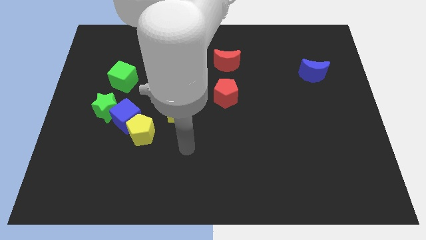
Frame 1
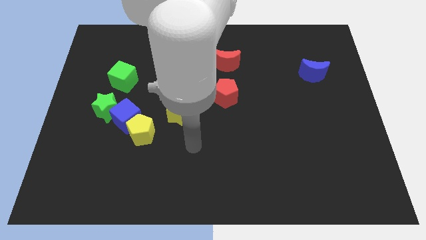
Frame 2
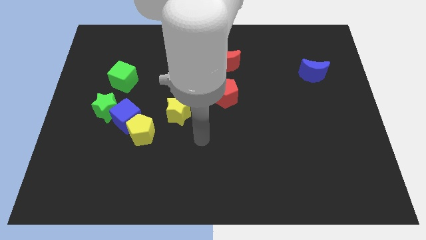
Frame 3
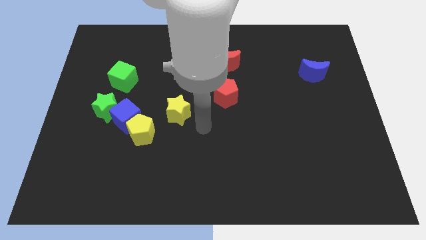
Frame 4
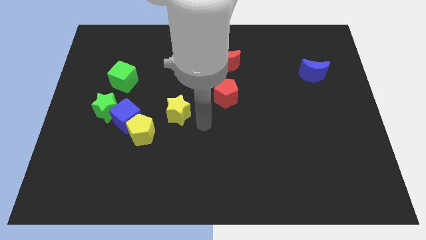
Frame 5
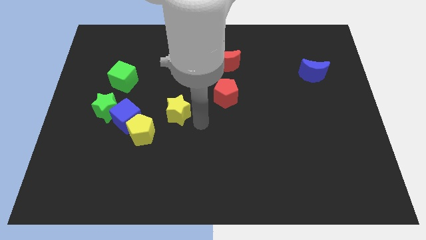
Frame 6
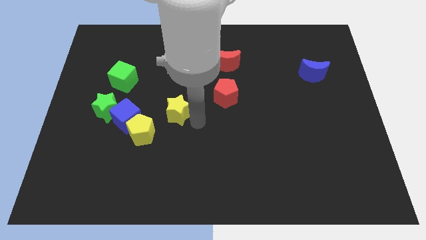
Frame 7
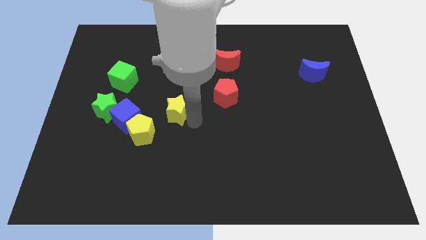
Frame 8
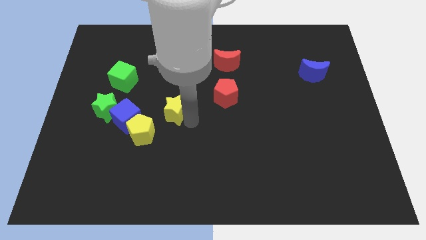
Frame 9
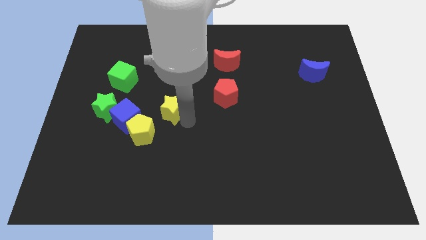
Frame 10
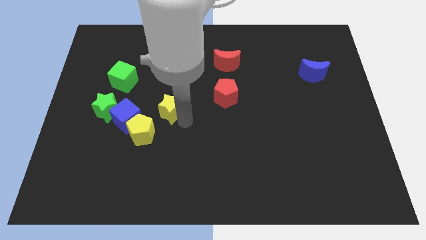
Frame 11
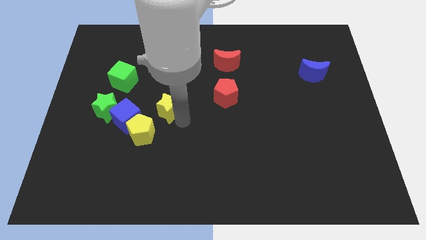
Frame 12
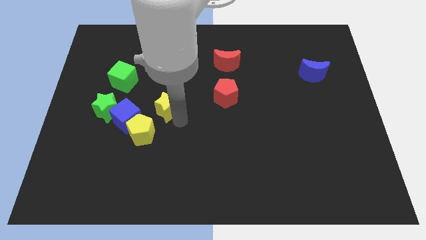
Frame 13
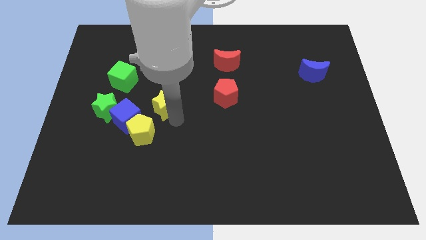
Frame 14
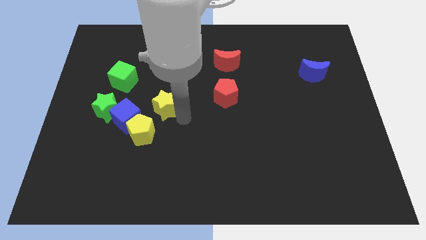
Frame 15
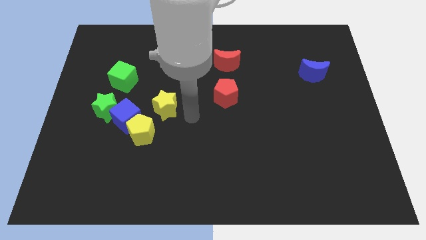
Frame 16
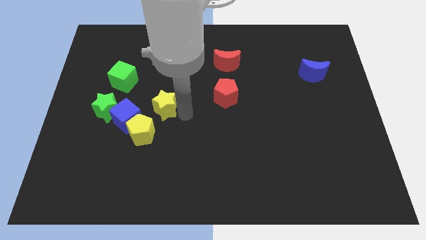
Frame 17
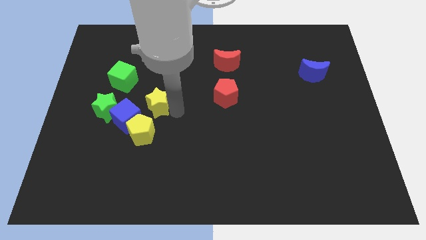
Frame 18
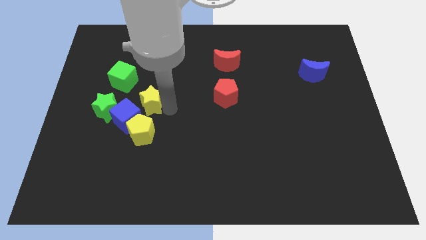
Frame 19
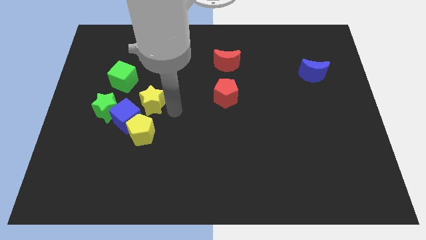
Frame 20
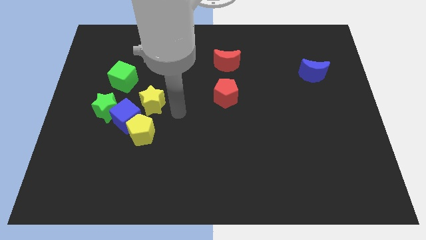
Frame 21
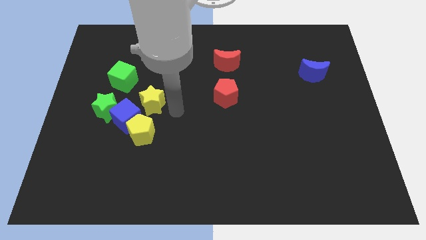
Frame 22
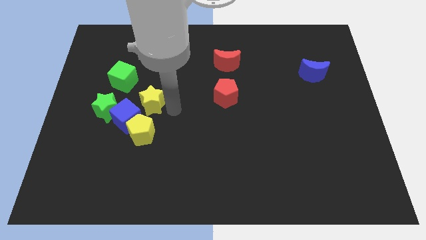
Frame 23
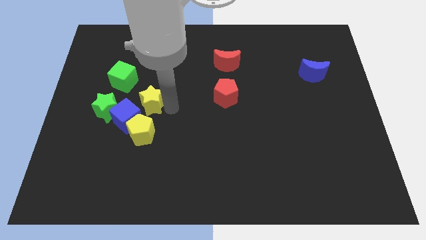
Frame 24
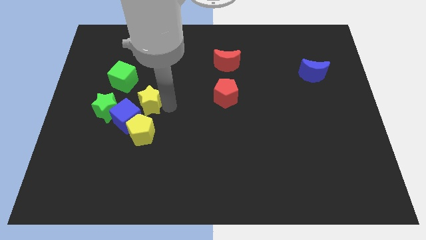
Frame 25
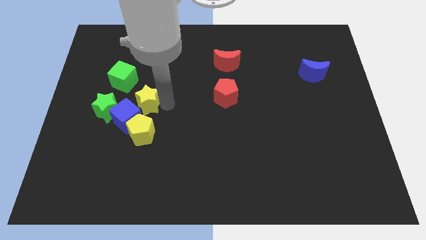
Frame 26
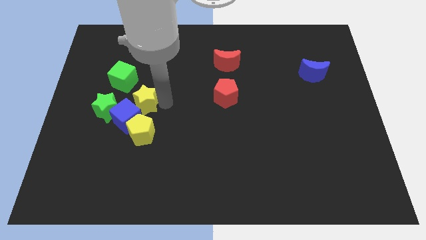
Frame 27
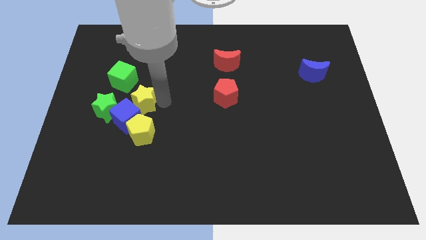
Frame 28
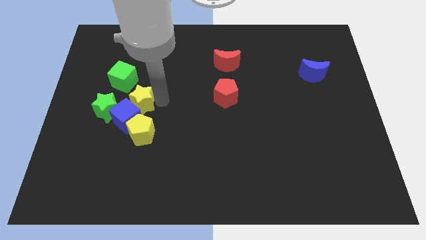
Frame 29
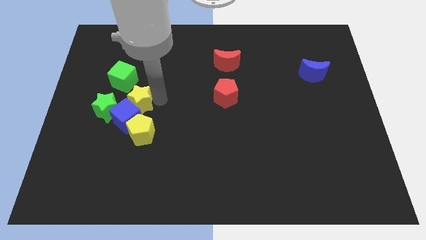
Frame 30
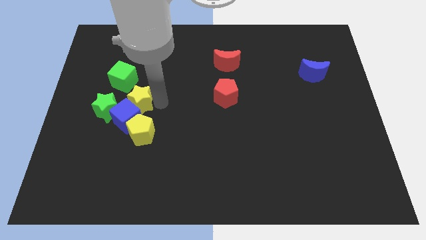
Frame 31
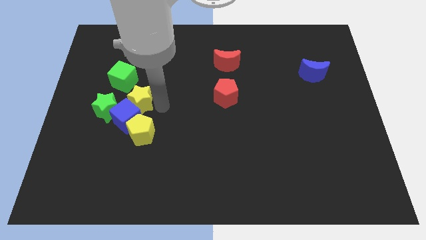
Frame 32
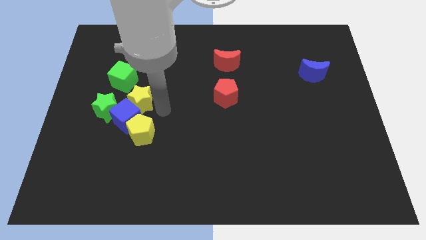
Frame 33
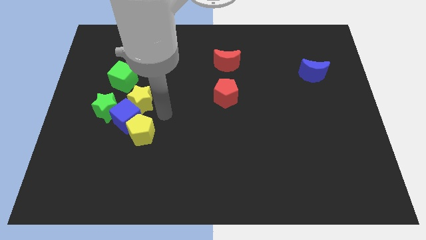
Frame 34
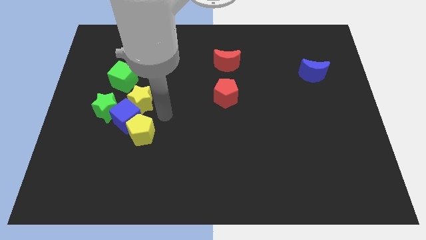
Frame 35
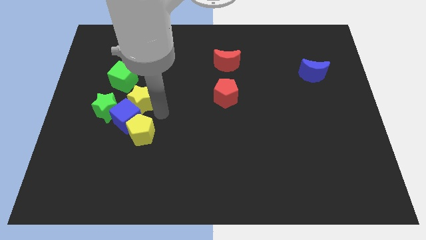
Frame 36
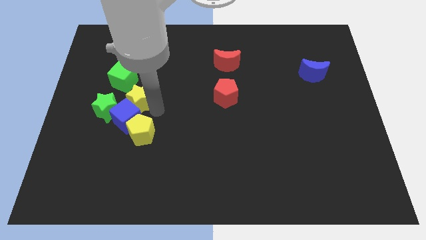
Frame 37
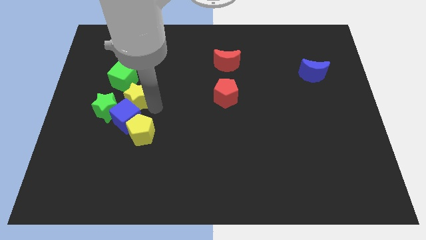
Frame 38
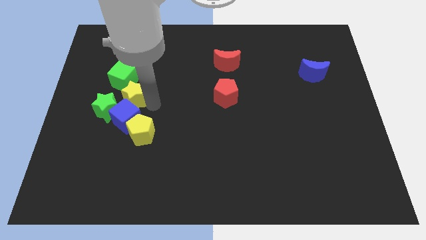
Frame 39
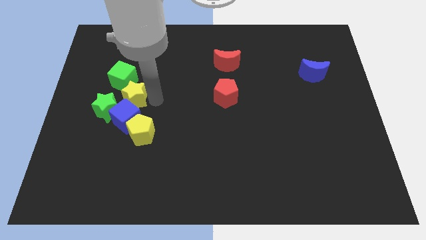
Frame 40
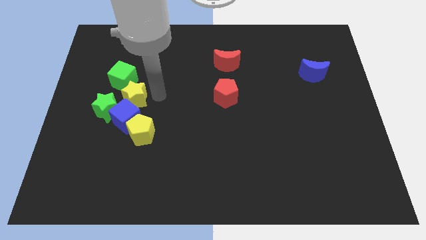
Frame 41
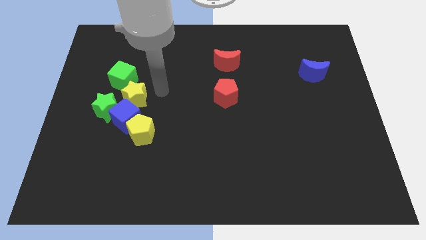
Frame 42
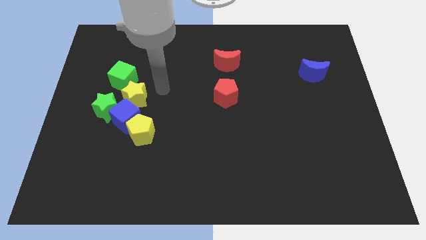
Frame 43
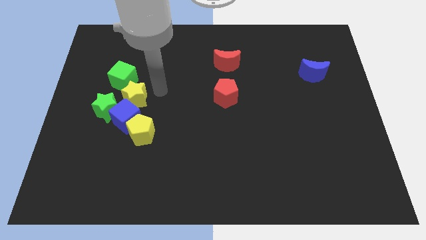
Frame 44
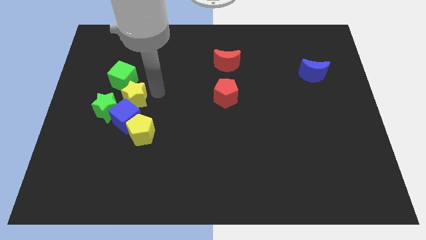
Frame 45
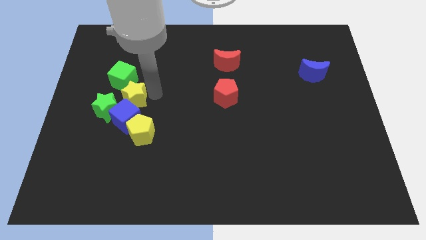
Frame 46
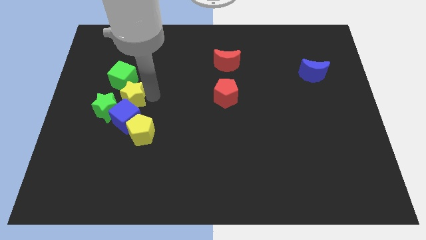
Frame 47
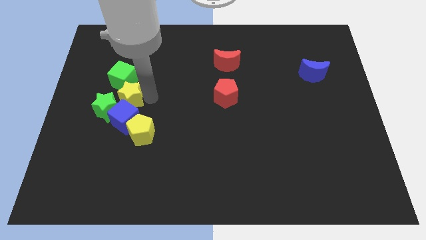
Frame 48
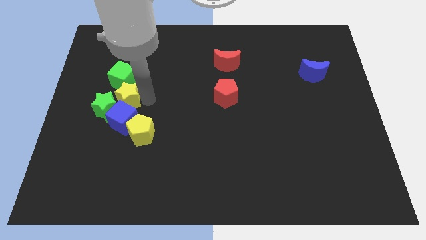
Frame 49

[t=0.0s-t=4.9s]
slide the yellow star to the green star

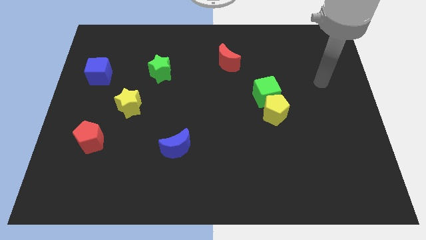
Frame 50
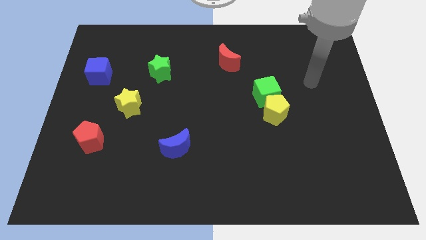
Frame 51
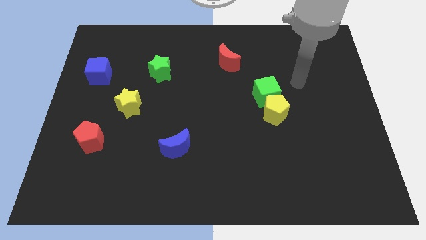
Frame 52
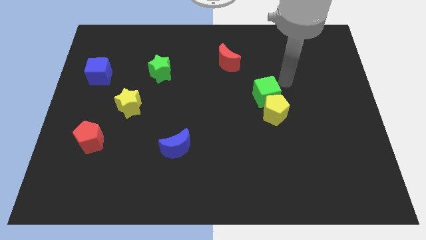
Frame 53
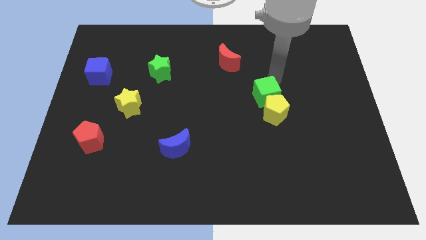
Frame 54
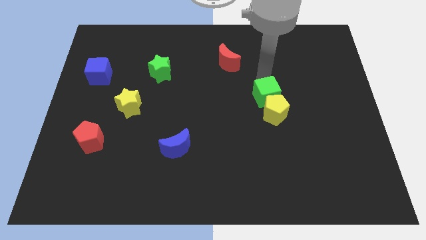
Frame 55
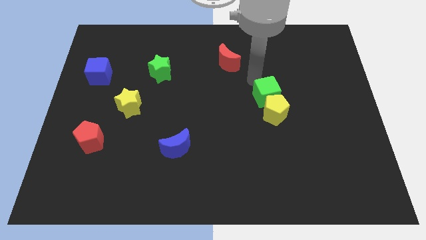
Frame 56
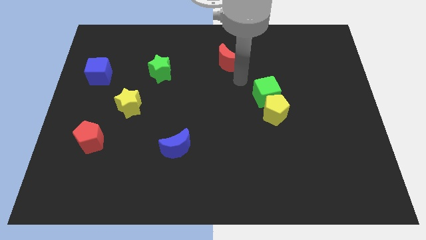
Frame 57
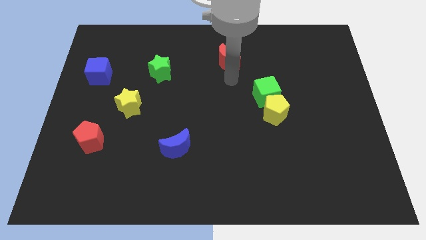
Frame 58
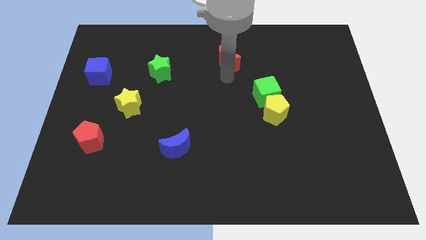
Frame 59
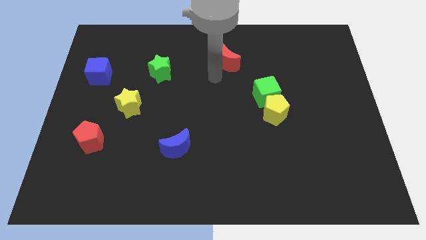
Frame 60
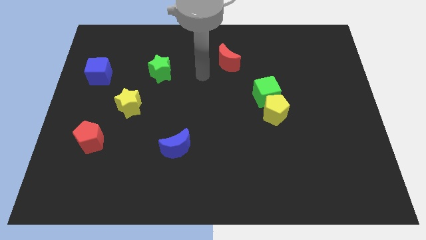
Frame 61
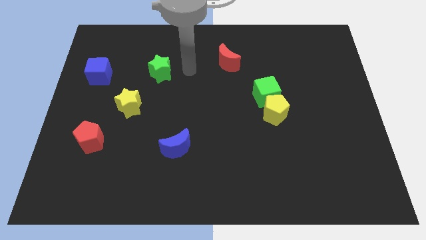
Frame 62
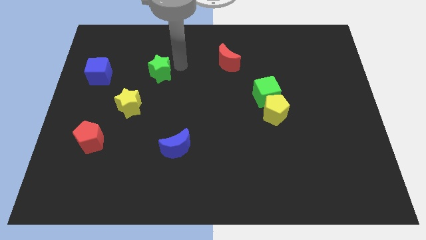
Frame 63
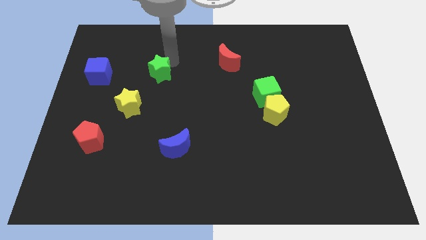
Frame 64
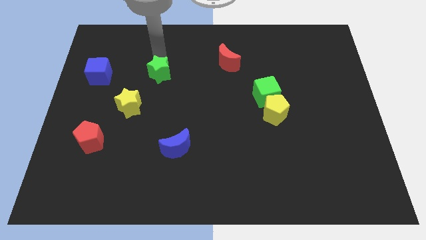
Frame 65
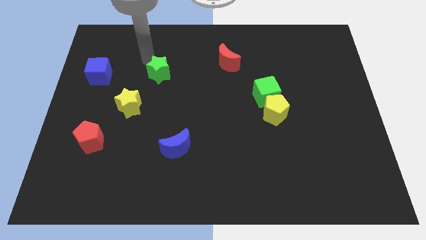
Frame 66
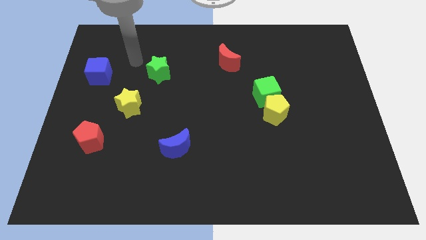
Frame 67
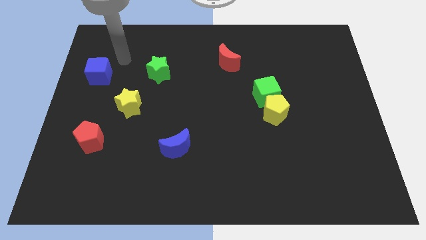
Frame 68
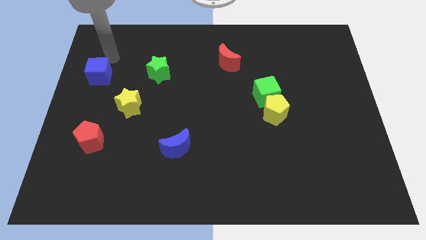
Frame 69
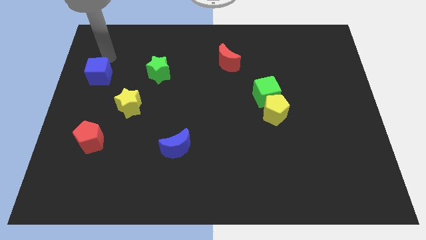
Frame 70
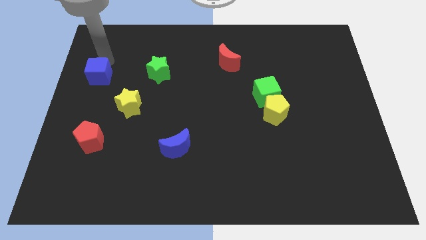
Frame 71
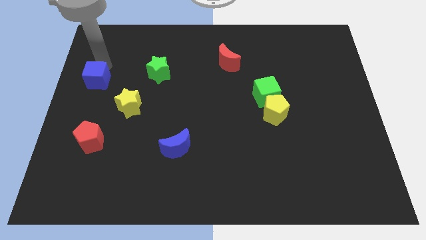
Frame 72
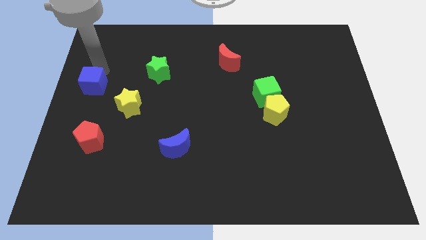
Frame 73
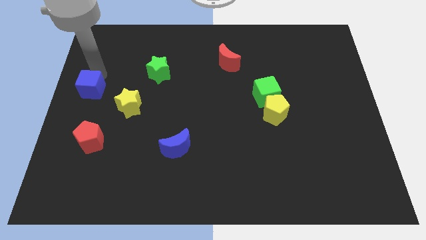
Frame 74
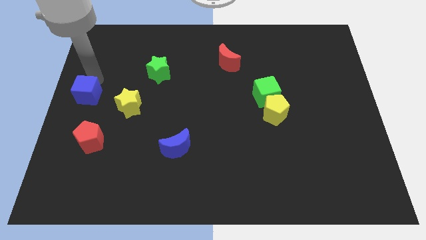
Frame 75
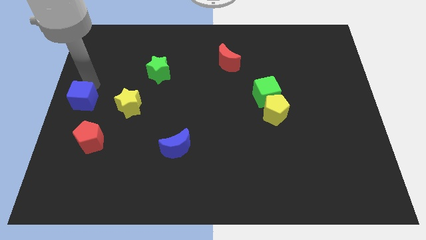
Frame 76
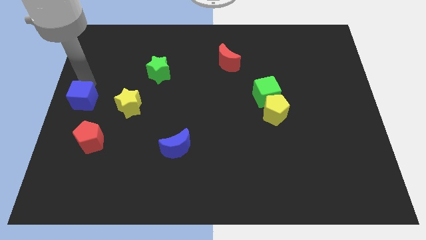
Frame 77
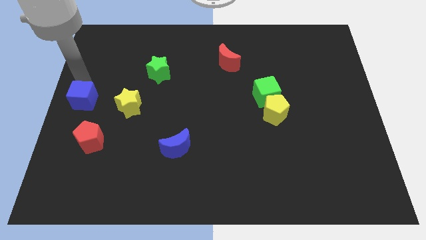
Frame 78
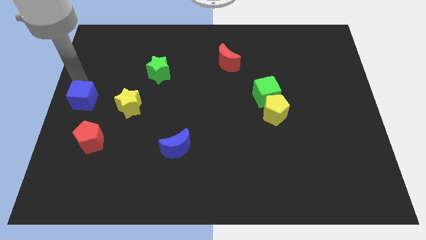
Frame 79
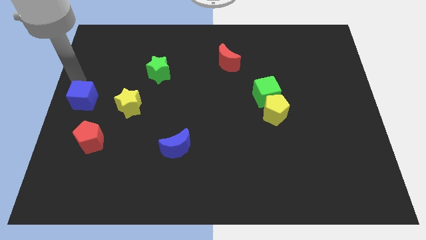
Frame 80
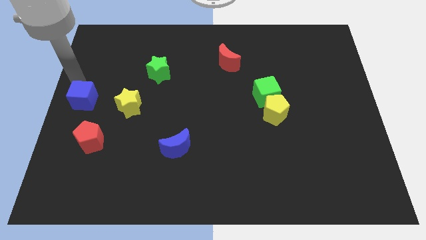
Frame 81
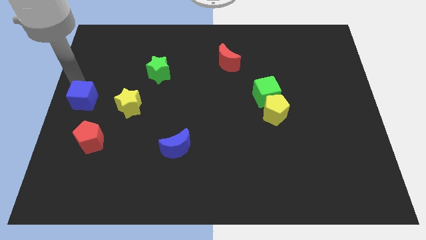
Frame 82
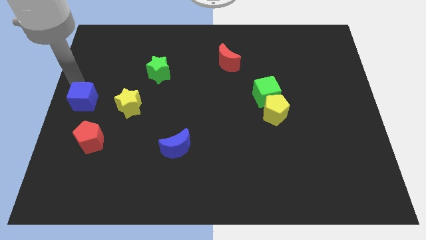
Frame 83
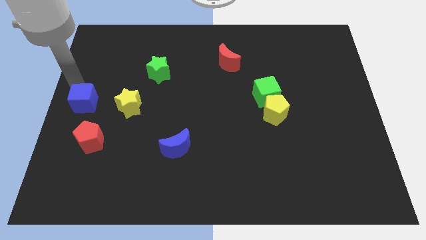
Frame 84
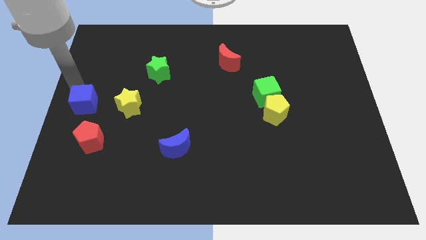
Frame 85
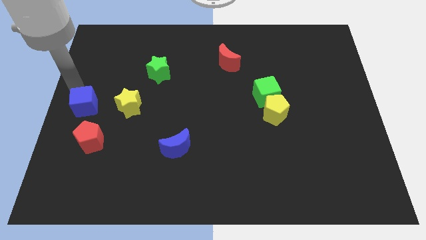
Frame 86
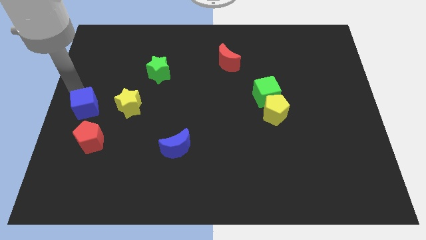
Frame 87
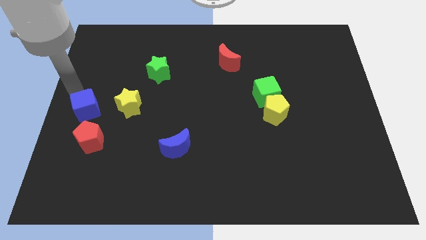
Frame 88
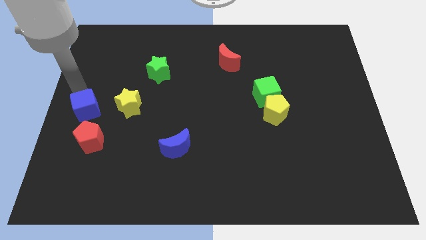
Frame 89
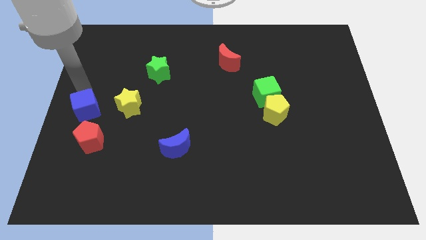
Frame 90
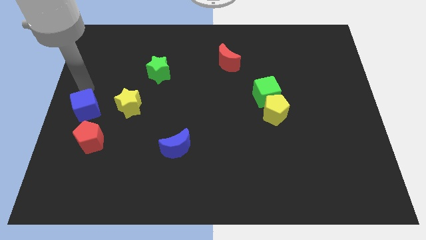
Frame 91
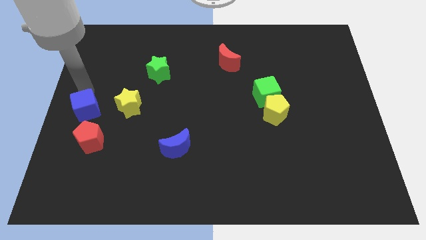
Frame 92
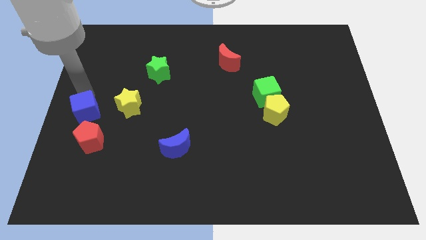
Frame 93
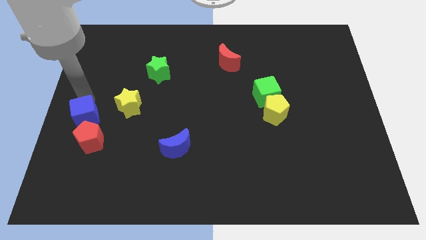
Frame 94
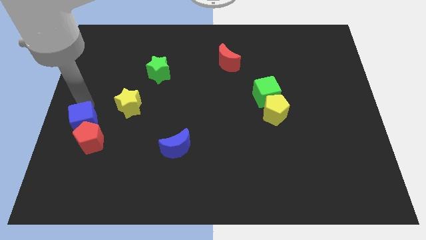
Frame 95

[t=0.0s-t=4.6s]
push the blue cube to the red pentagon
